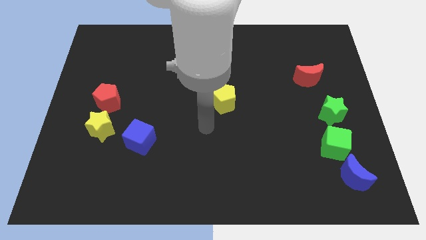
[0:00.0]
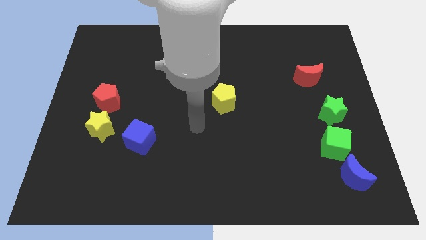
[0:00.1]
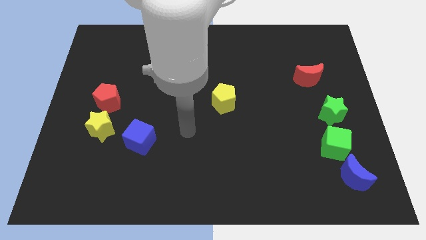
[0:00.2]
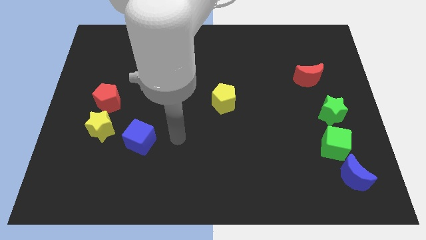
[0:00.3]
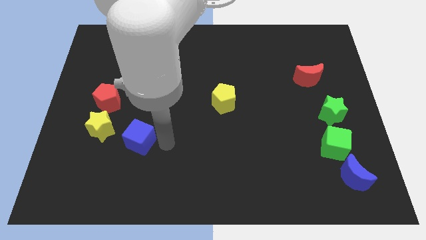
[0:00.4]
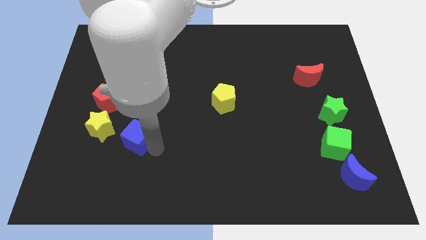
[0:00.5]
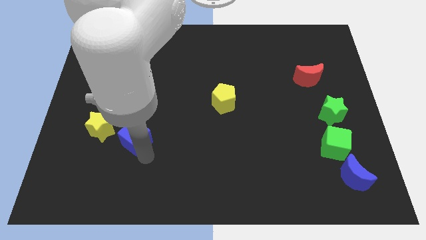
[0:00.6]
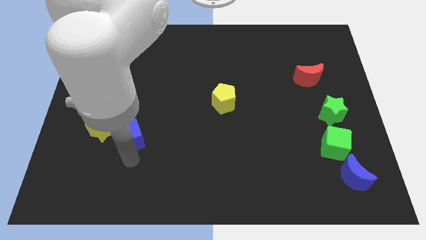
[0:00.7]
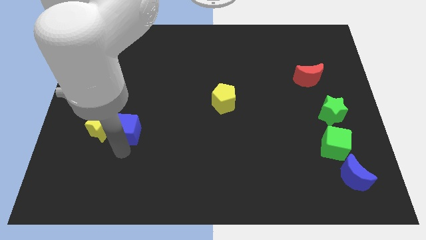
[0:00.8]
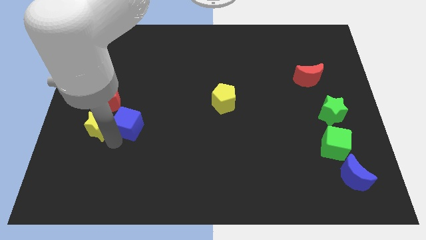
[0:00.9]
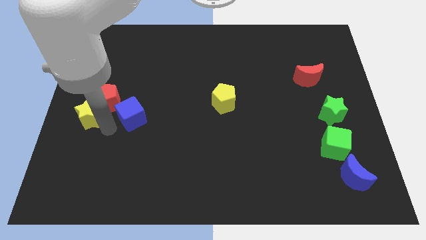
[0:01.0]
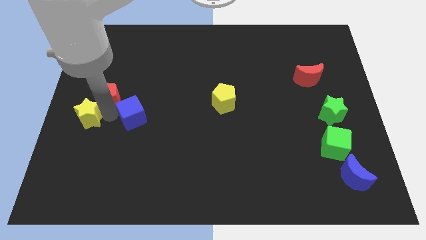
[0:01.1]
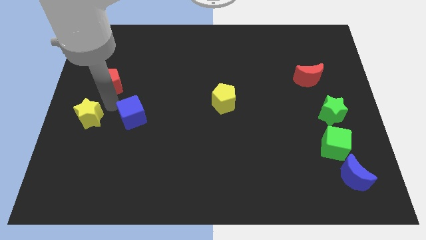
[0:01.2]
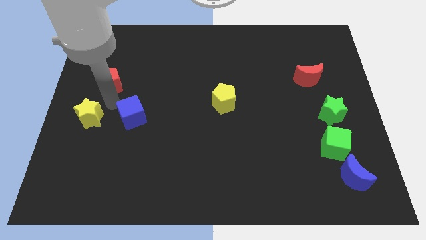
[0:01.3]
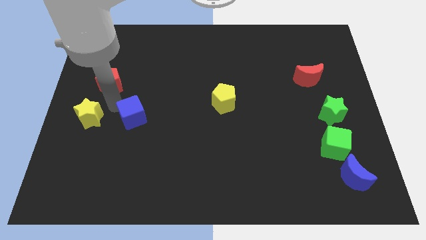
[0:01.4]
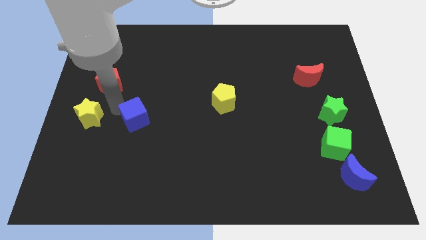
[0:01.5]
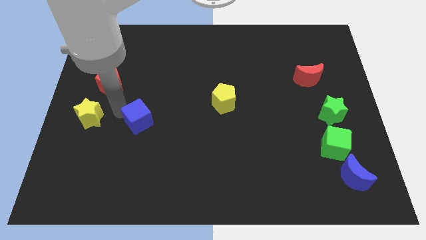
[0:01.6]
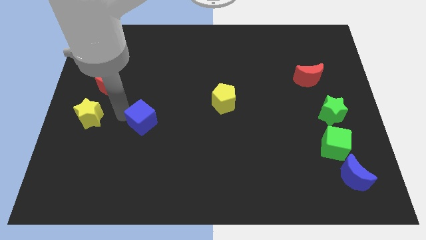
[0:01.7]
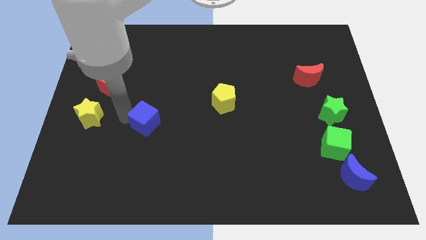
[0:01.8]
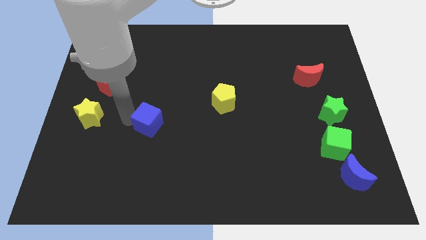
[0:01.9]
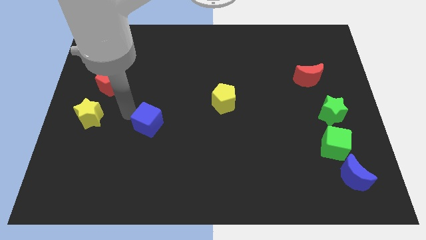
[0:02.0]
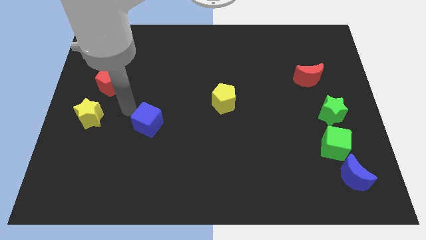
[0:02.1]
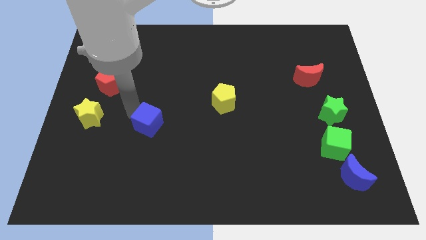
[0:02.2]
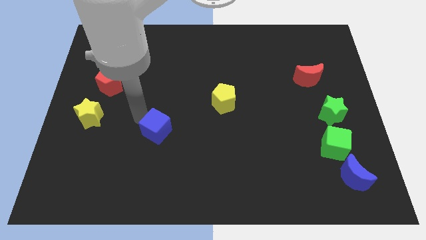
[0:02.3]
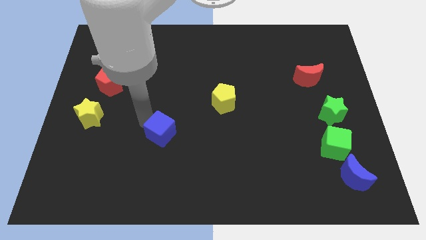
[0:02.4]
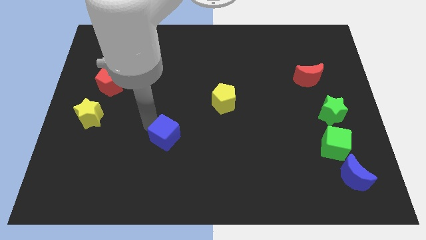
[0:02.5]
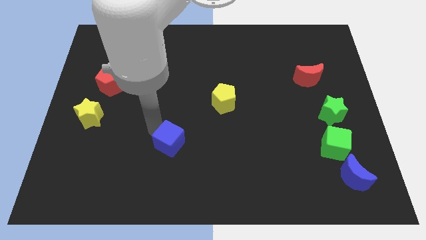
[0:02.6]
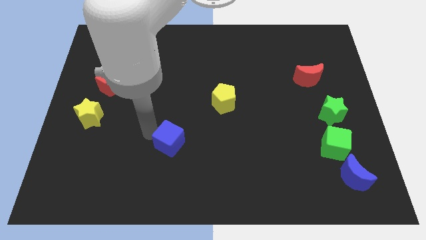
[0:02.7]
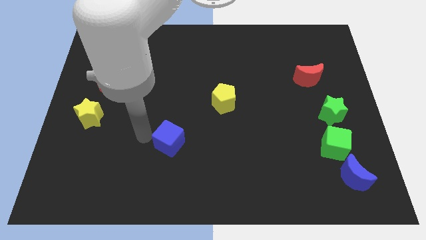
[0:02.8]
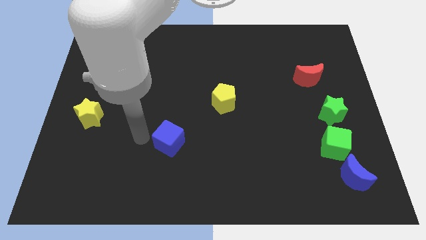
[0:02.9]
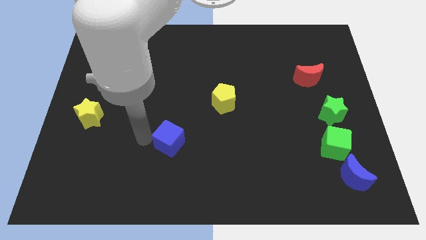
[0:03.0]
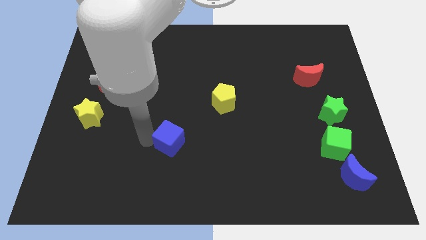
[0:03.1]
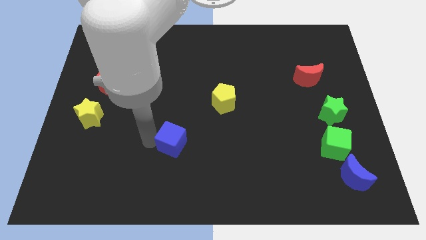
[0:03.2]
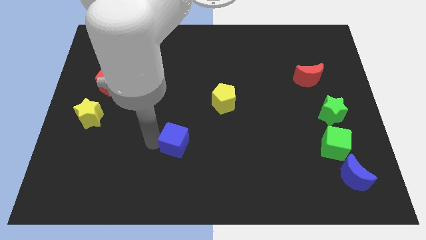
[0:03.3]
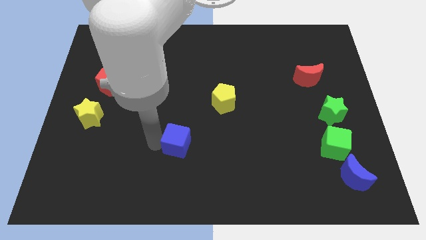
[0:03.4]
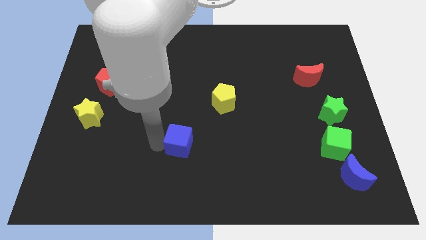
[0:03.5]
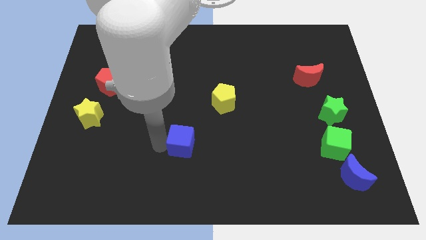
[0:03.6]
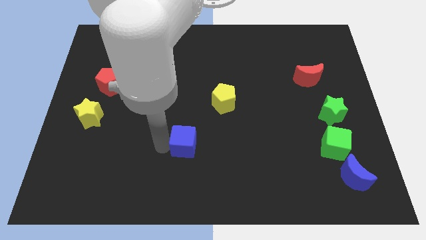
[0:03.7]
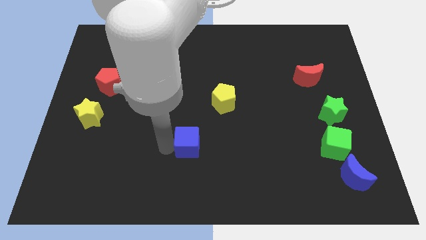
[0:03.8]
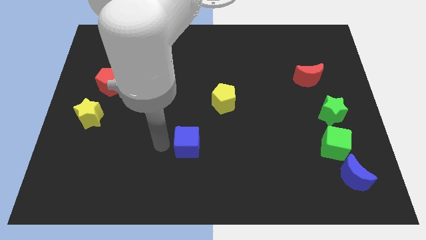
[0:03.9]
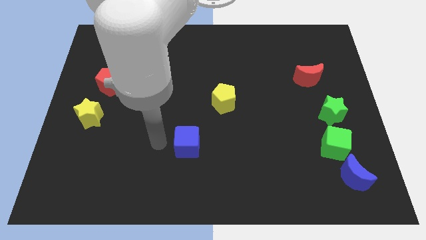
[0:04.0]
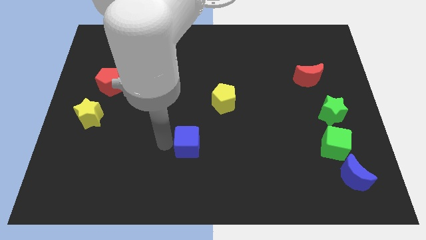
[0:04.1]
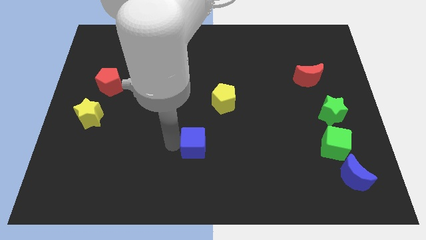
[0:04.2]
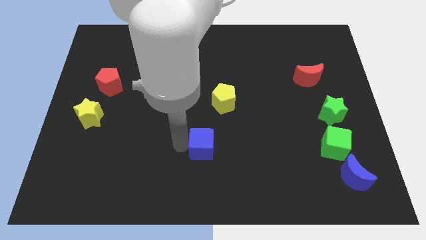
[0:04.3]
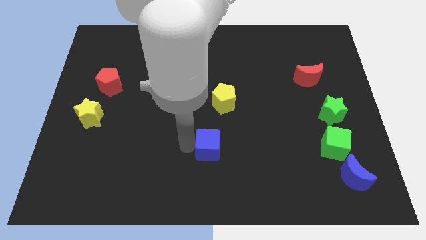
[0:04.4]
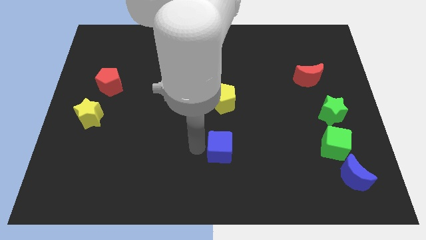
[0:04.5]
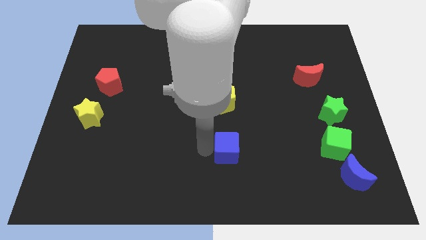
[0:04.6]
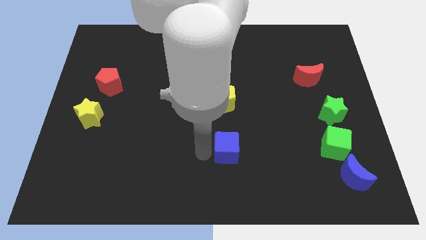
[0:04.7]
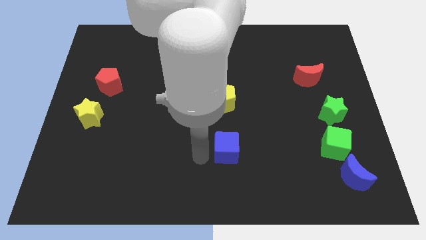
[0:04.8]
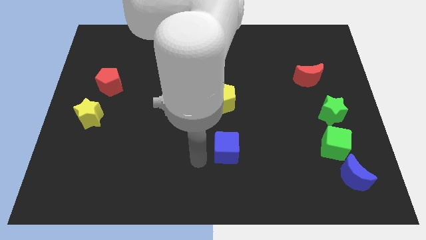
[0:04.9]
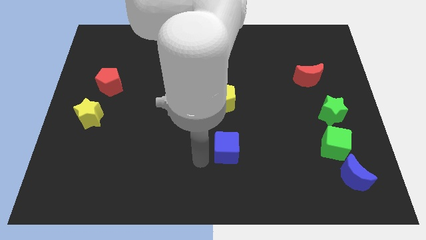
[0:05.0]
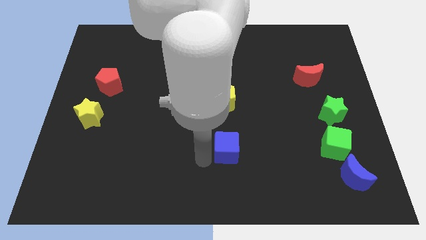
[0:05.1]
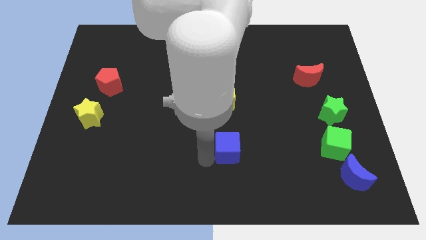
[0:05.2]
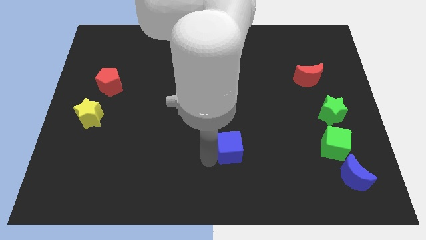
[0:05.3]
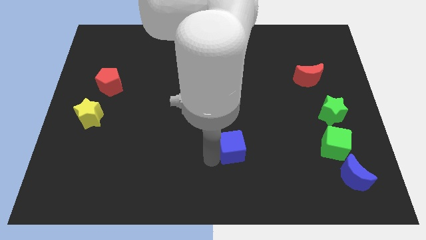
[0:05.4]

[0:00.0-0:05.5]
slide the blue cube to the right

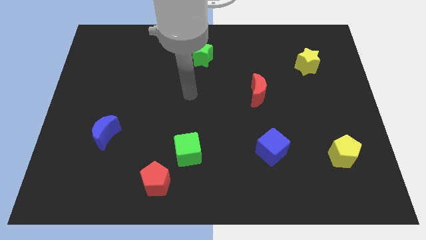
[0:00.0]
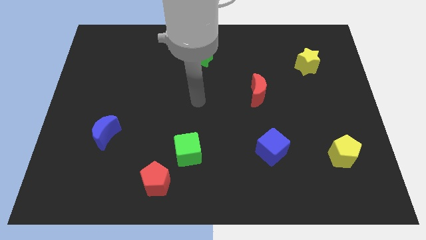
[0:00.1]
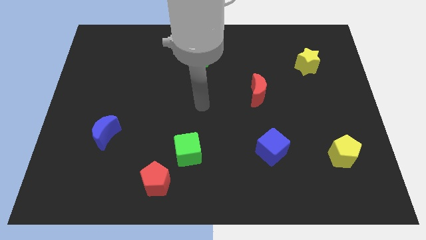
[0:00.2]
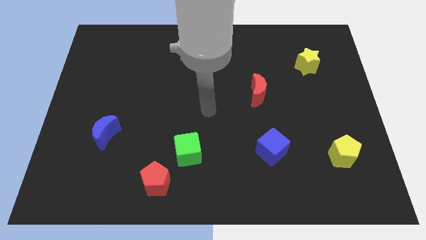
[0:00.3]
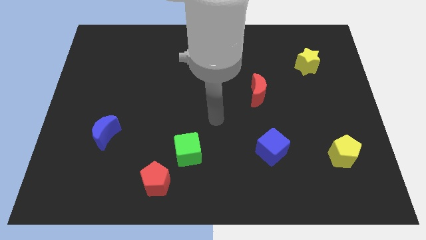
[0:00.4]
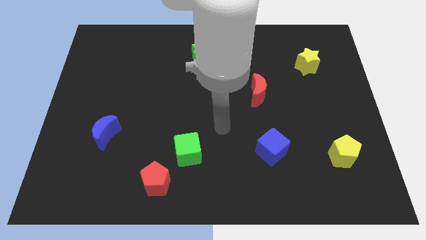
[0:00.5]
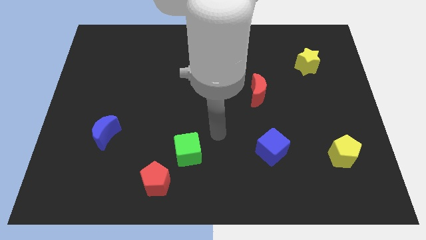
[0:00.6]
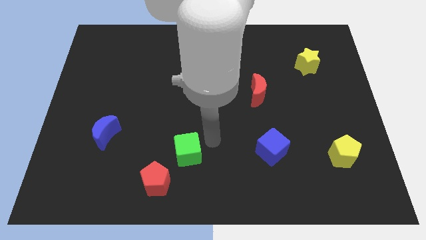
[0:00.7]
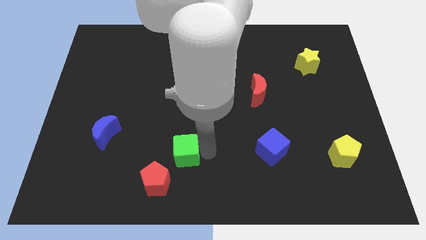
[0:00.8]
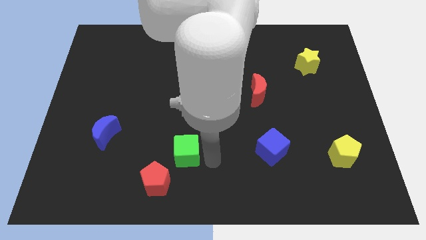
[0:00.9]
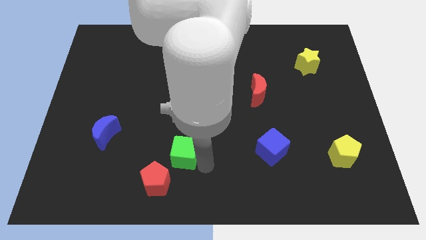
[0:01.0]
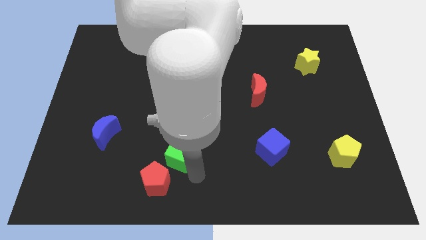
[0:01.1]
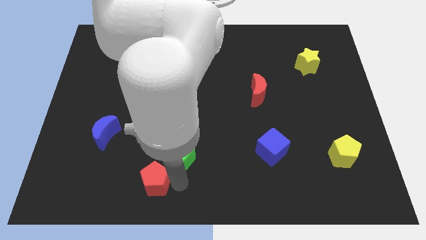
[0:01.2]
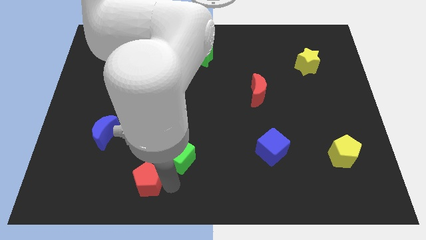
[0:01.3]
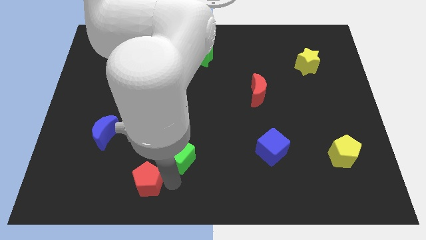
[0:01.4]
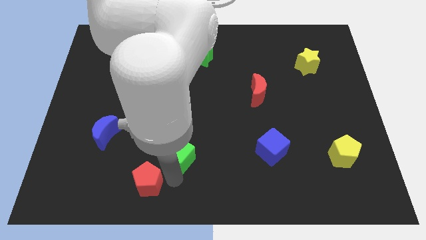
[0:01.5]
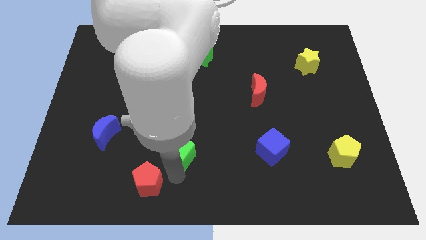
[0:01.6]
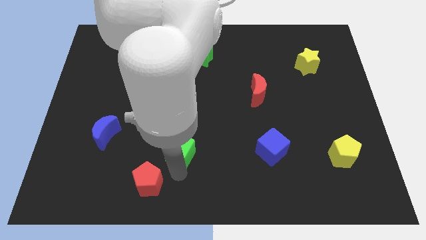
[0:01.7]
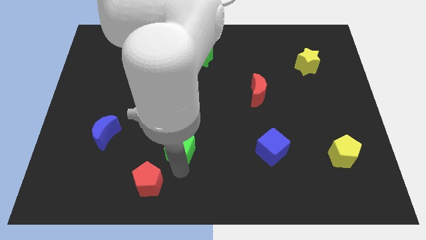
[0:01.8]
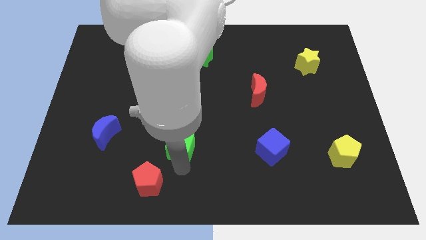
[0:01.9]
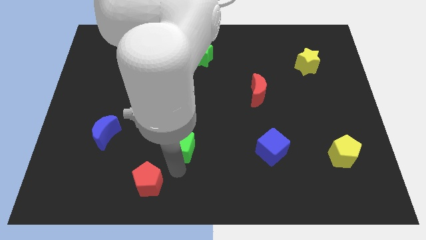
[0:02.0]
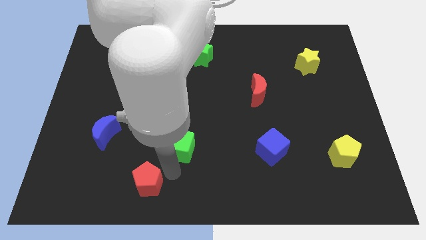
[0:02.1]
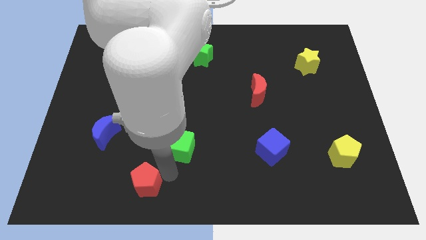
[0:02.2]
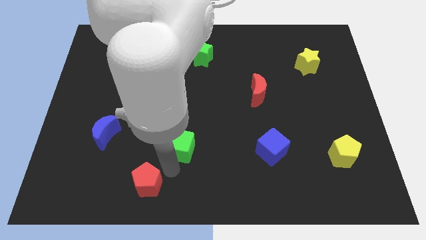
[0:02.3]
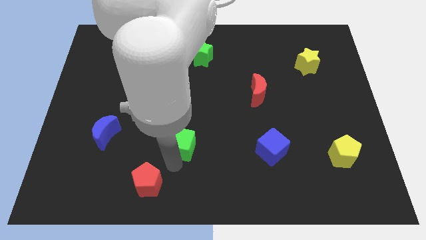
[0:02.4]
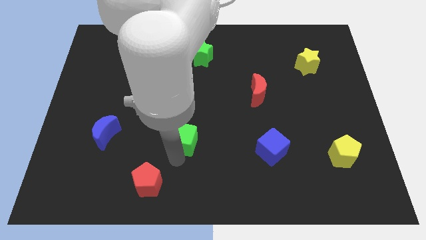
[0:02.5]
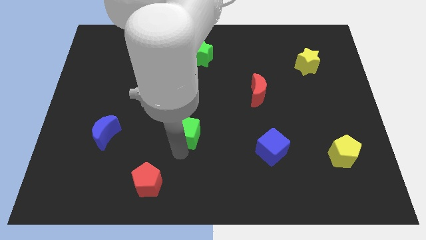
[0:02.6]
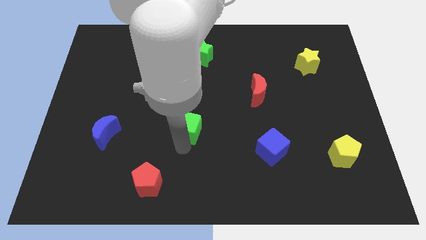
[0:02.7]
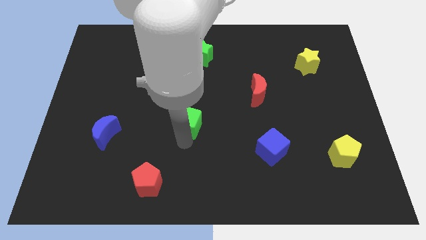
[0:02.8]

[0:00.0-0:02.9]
slightly push the green cube upwards
